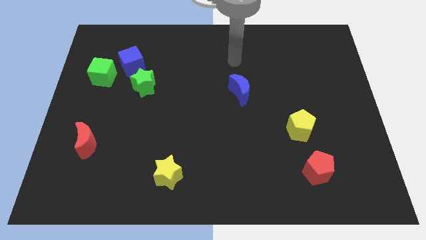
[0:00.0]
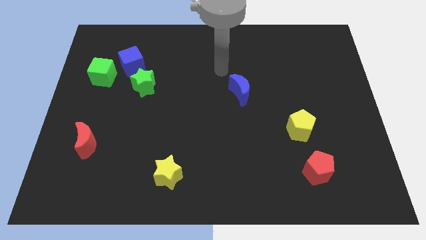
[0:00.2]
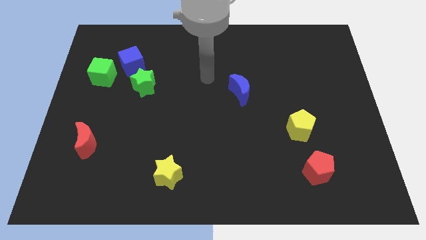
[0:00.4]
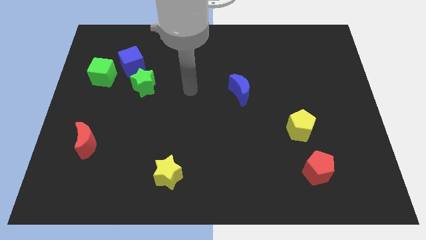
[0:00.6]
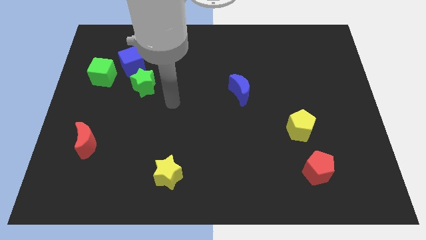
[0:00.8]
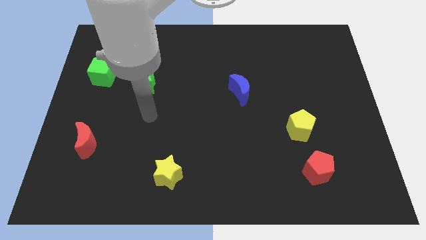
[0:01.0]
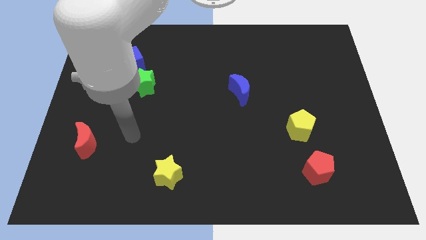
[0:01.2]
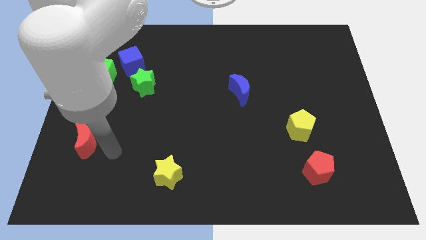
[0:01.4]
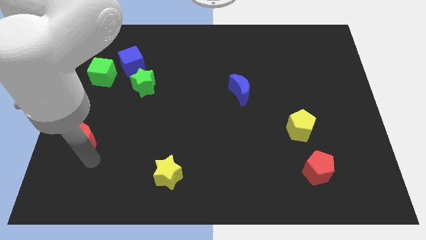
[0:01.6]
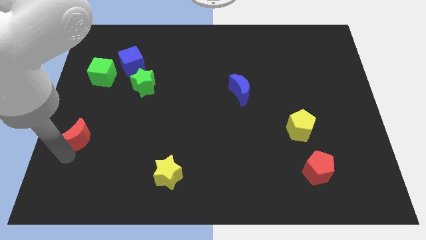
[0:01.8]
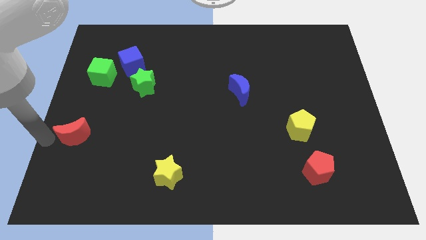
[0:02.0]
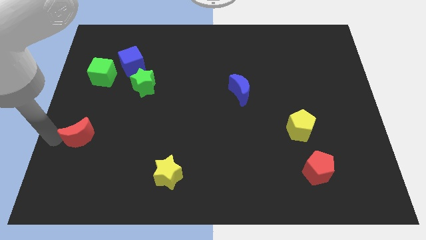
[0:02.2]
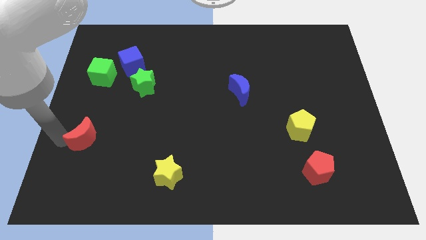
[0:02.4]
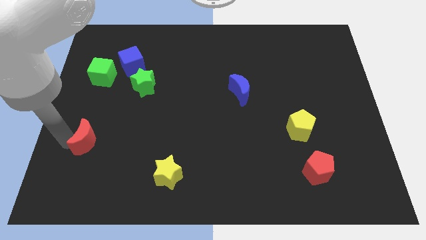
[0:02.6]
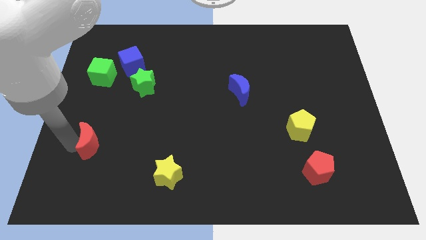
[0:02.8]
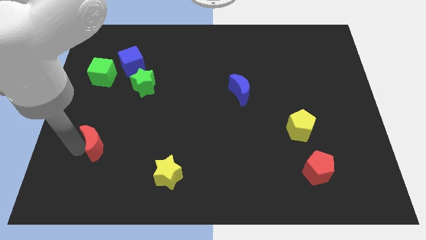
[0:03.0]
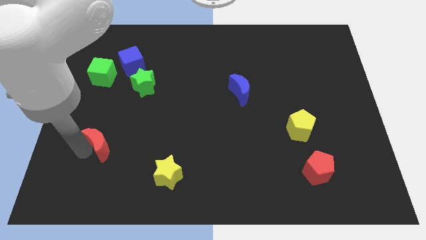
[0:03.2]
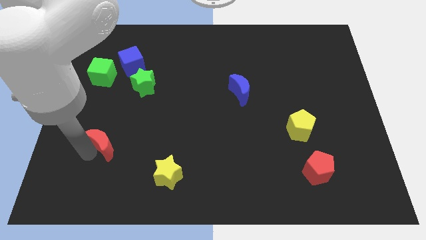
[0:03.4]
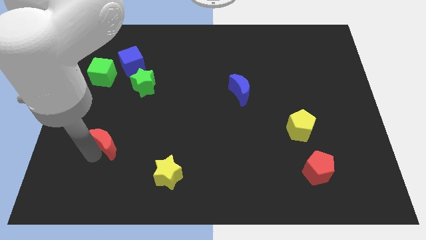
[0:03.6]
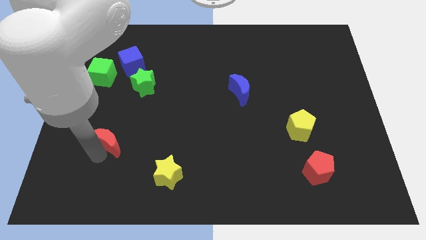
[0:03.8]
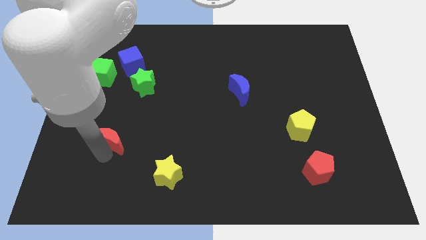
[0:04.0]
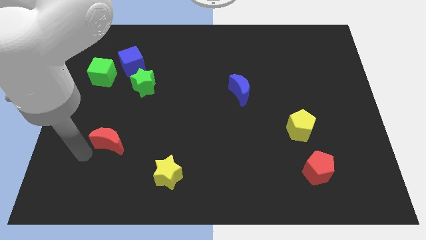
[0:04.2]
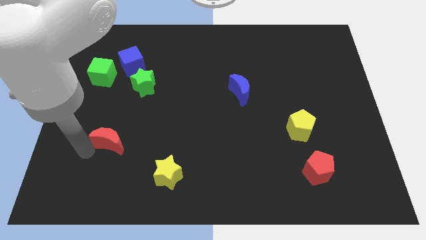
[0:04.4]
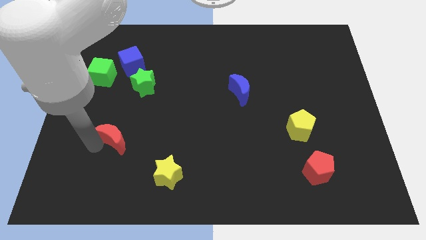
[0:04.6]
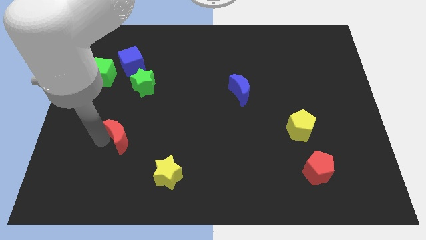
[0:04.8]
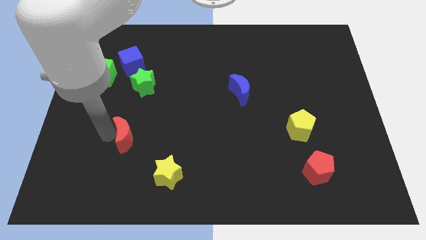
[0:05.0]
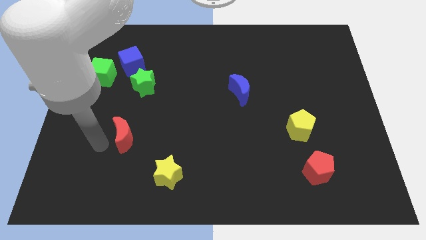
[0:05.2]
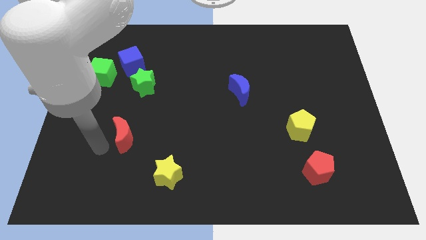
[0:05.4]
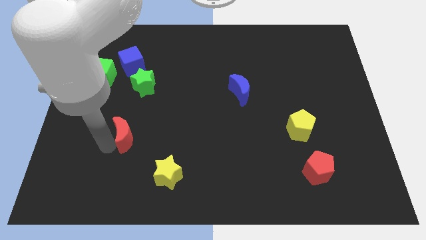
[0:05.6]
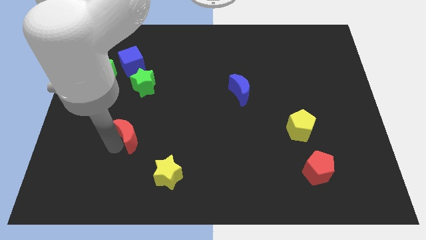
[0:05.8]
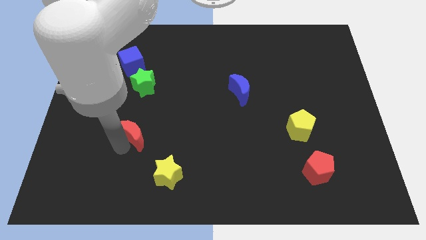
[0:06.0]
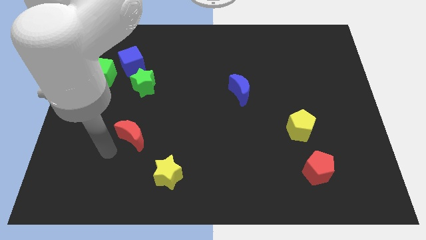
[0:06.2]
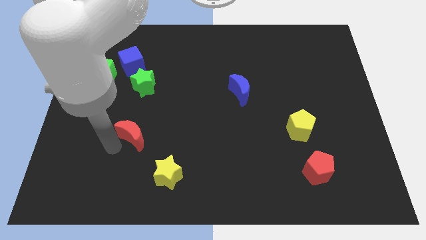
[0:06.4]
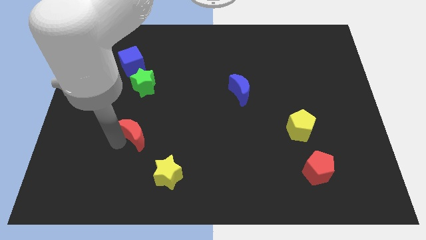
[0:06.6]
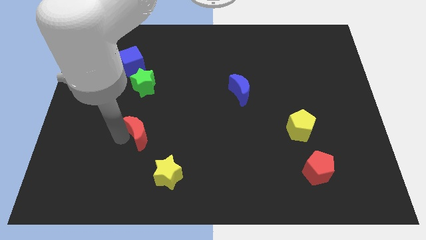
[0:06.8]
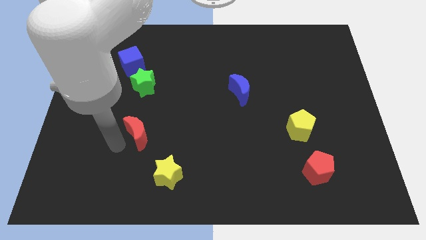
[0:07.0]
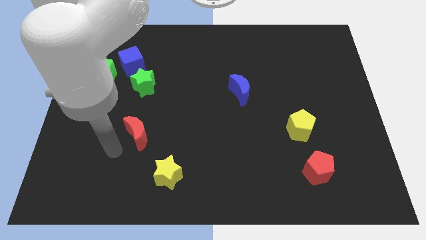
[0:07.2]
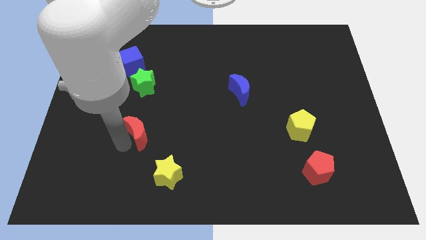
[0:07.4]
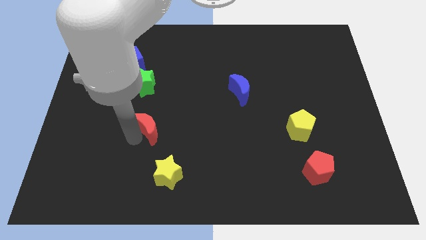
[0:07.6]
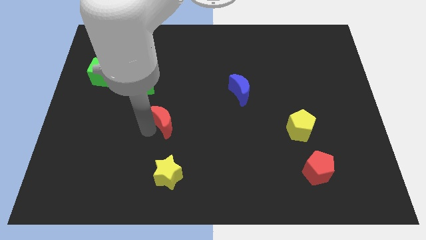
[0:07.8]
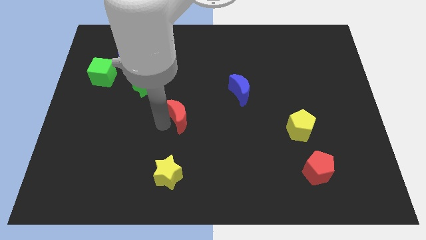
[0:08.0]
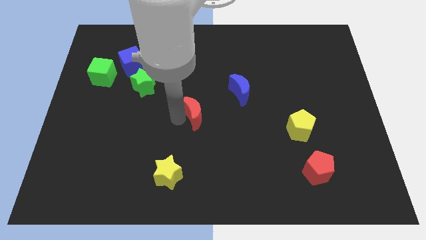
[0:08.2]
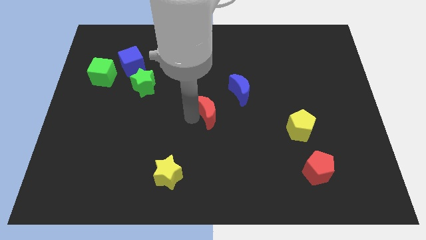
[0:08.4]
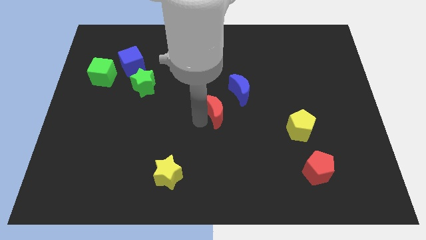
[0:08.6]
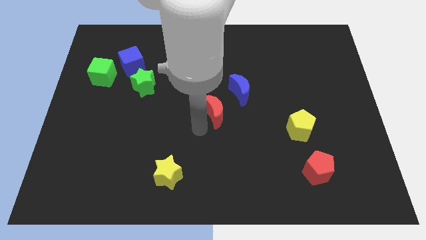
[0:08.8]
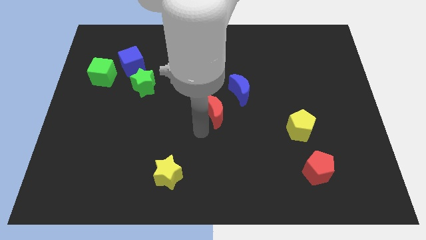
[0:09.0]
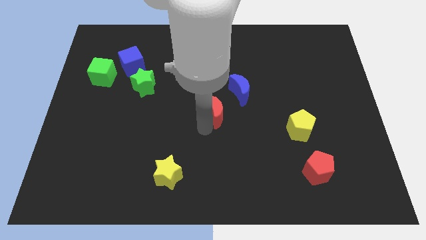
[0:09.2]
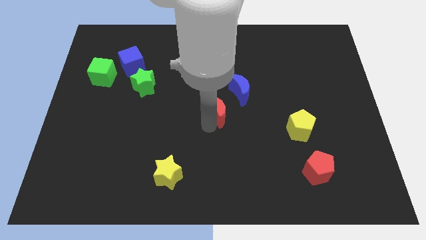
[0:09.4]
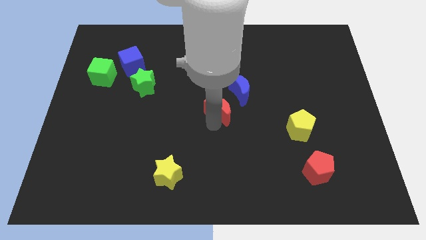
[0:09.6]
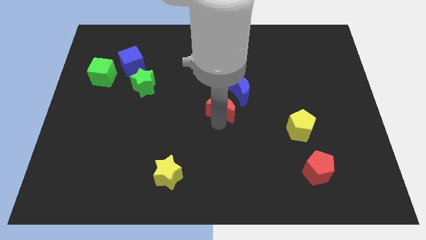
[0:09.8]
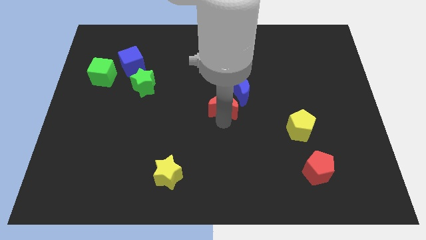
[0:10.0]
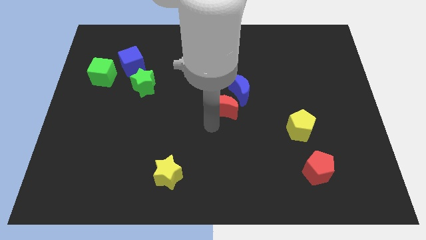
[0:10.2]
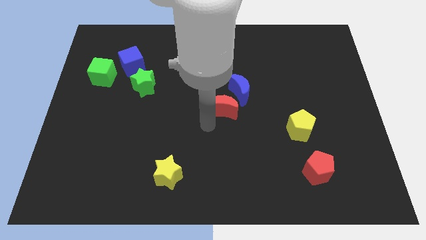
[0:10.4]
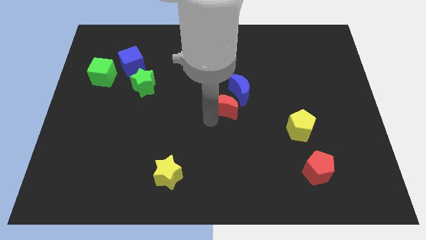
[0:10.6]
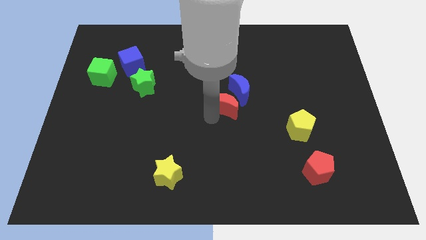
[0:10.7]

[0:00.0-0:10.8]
move the red moon next to the blue moon

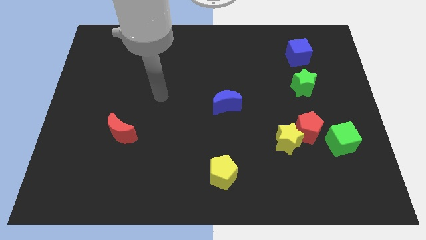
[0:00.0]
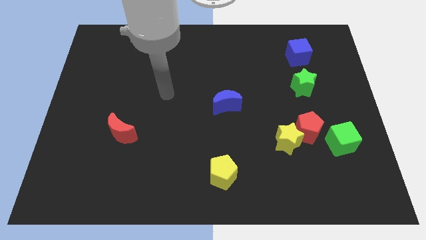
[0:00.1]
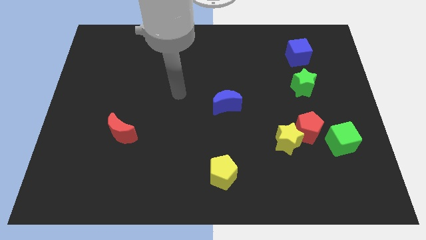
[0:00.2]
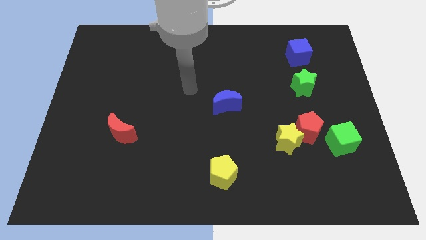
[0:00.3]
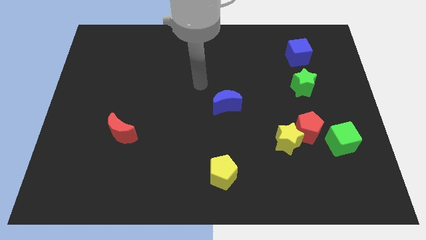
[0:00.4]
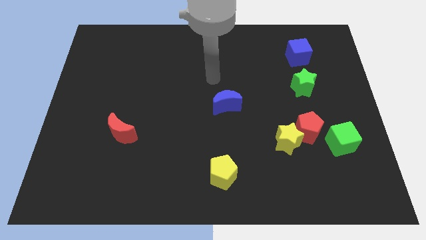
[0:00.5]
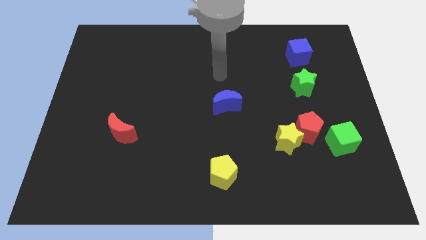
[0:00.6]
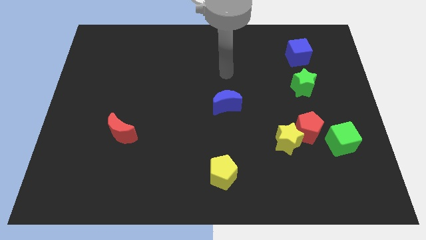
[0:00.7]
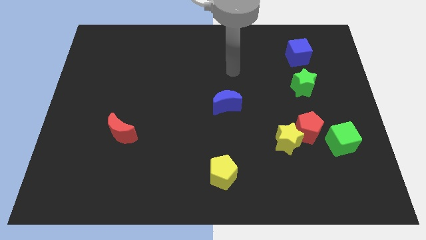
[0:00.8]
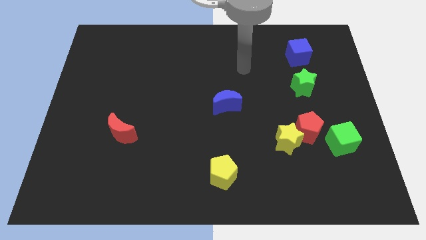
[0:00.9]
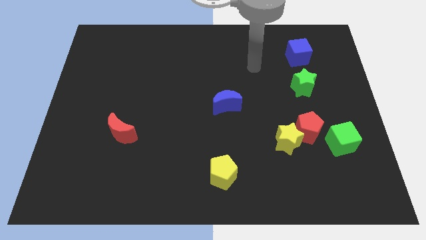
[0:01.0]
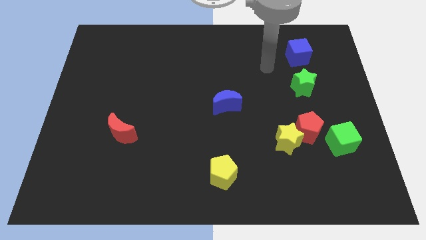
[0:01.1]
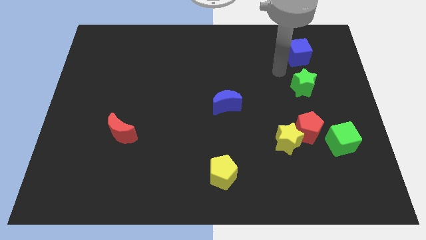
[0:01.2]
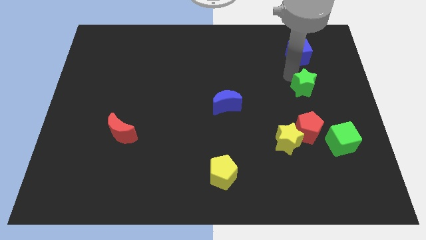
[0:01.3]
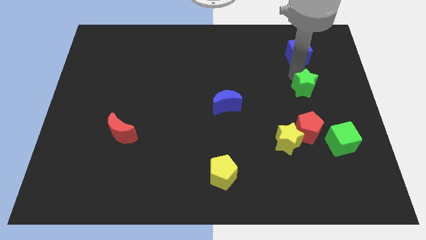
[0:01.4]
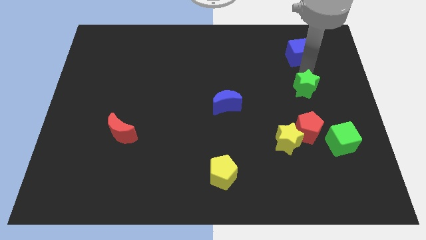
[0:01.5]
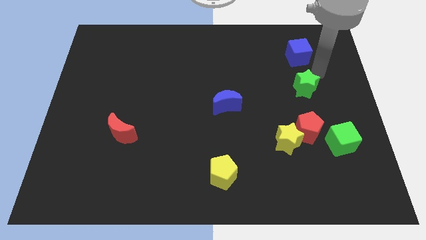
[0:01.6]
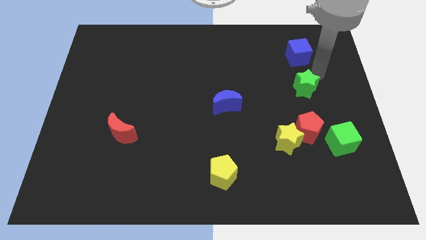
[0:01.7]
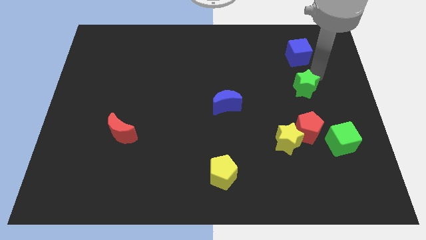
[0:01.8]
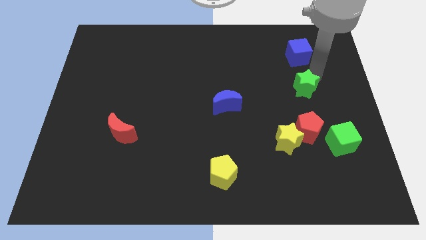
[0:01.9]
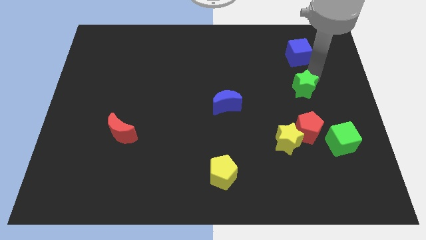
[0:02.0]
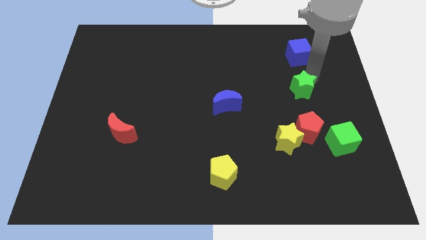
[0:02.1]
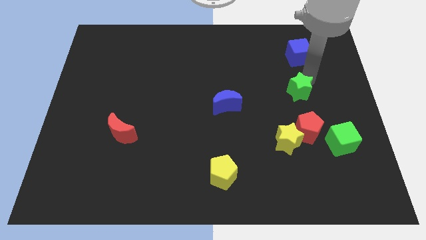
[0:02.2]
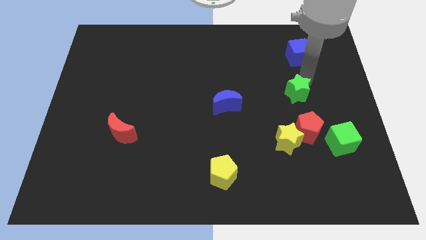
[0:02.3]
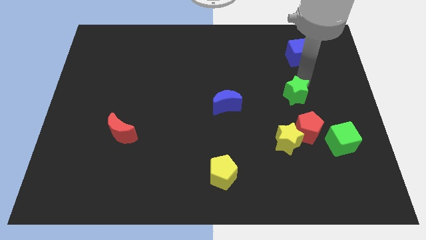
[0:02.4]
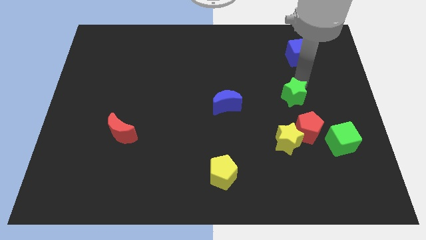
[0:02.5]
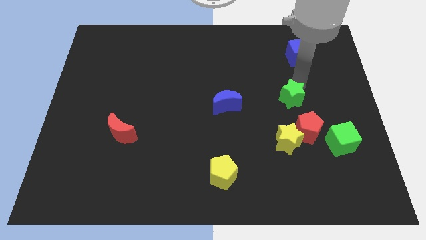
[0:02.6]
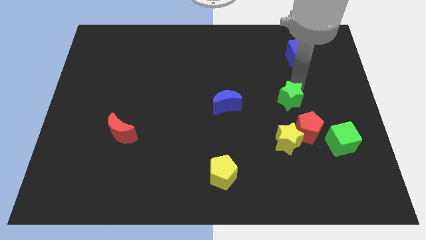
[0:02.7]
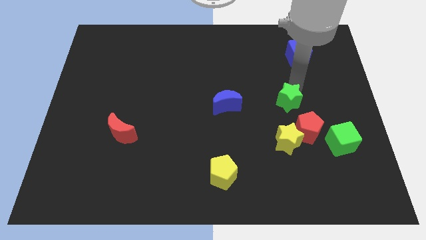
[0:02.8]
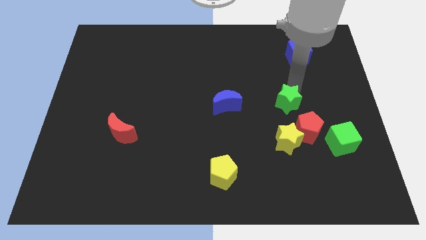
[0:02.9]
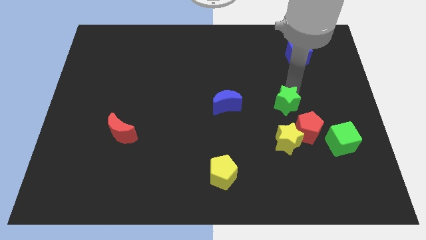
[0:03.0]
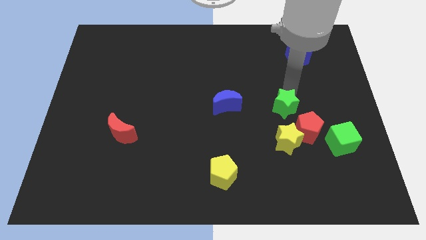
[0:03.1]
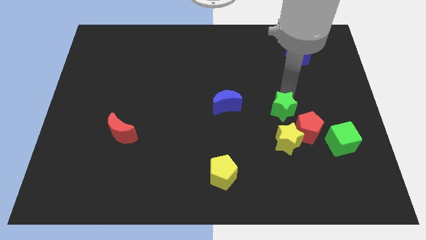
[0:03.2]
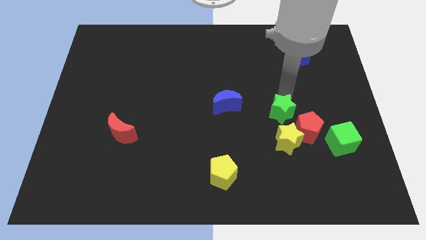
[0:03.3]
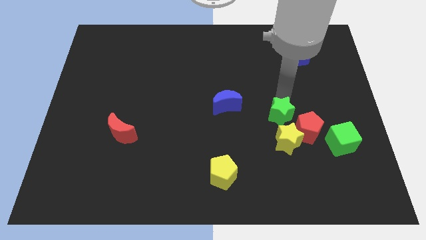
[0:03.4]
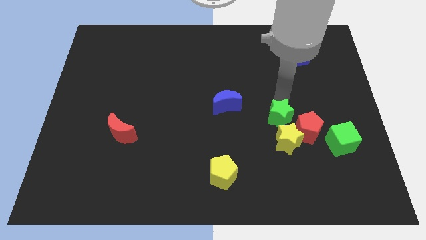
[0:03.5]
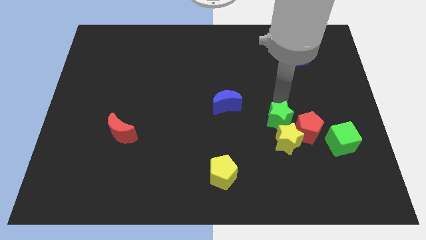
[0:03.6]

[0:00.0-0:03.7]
push the green star to the yellow star
